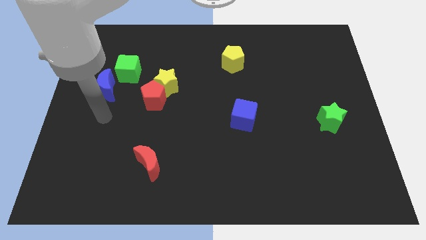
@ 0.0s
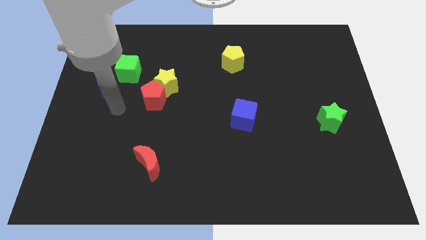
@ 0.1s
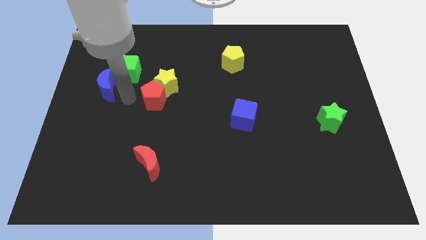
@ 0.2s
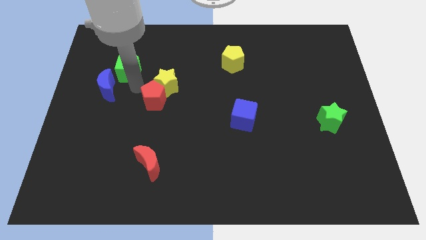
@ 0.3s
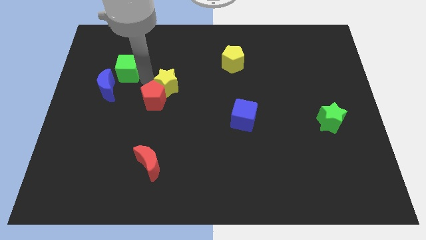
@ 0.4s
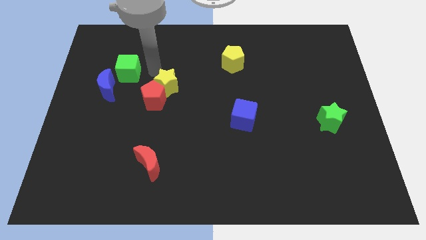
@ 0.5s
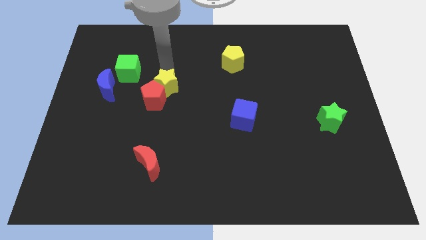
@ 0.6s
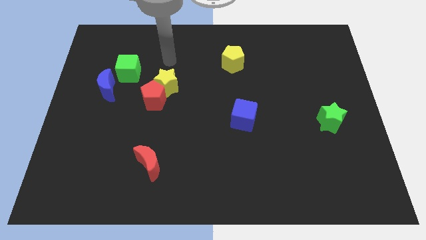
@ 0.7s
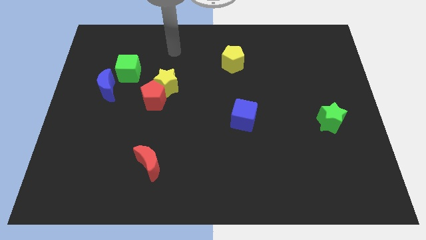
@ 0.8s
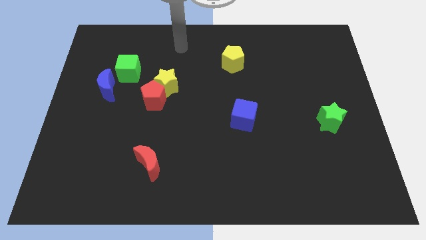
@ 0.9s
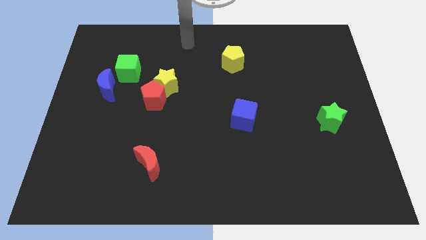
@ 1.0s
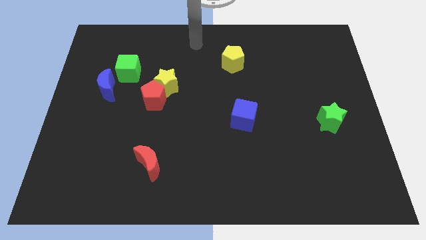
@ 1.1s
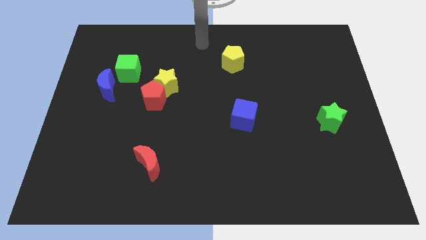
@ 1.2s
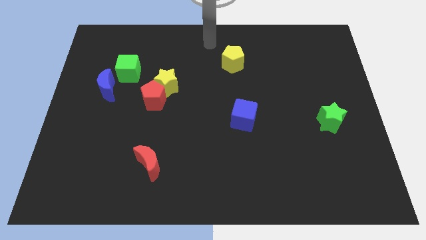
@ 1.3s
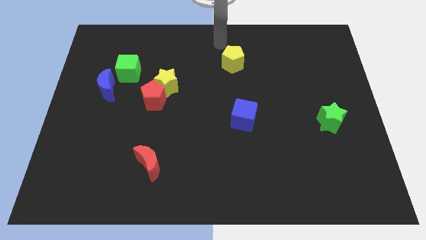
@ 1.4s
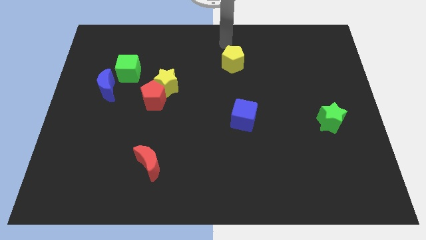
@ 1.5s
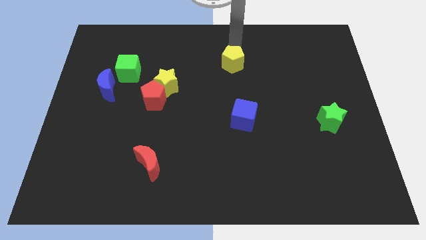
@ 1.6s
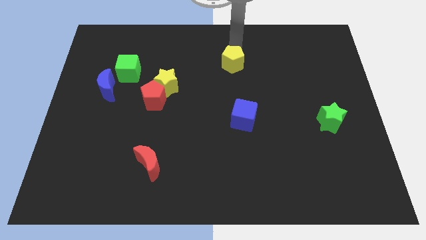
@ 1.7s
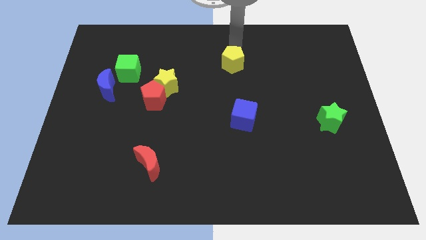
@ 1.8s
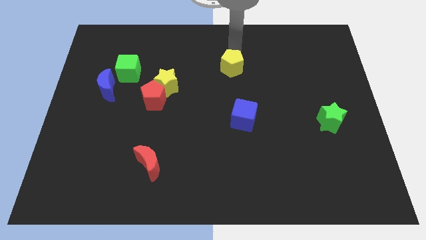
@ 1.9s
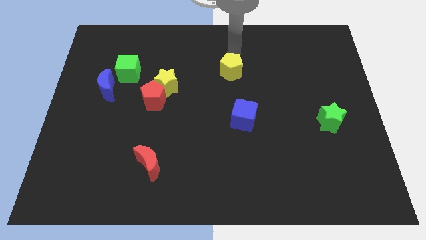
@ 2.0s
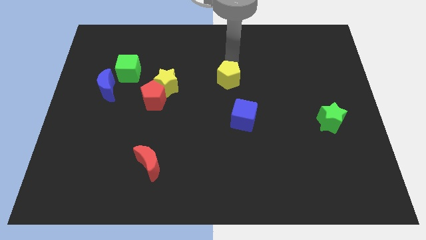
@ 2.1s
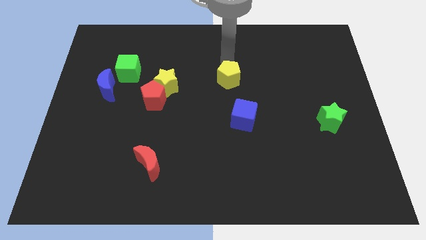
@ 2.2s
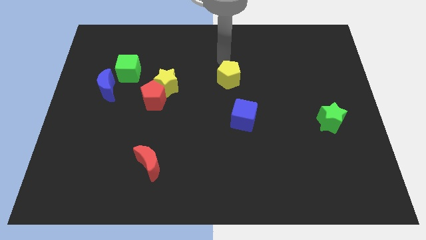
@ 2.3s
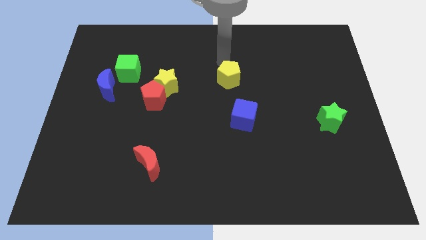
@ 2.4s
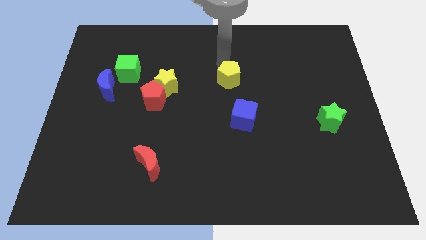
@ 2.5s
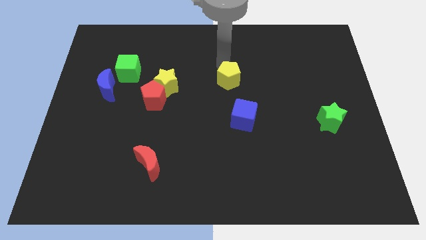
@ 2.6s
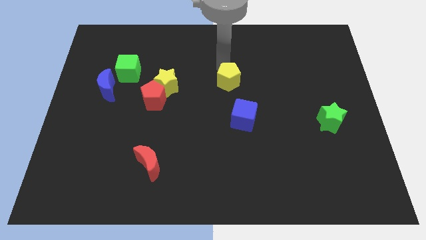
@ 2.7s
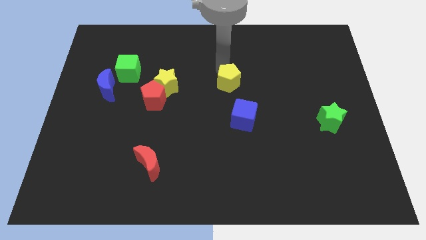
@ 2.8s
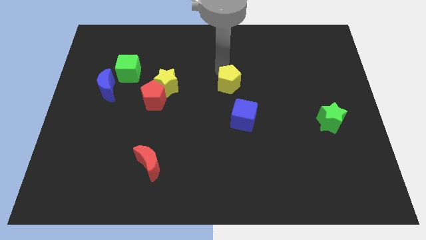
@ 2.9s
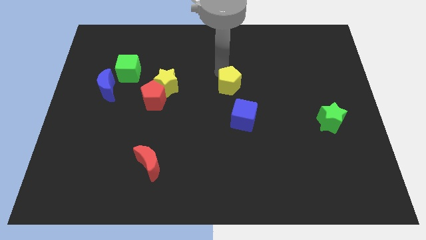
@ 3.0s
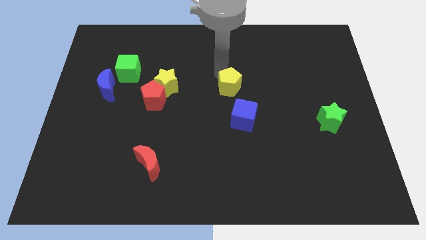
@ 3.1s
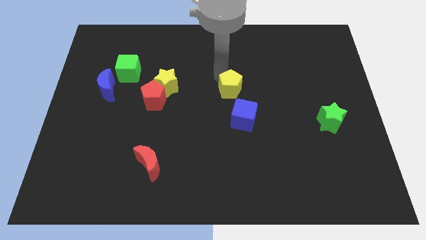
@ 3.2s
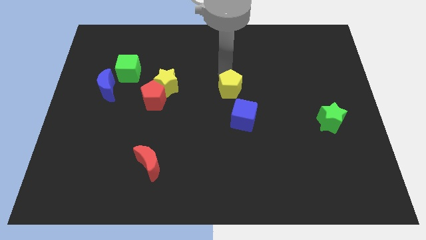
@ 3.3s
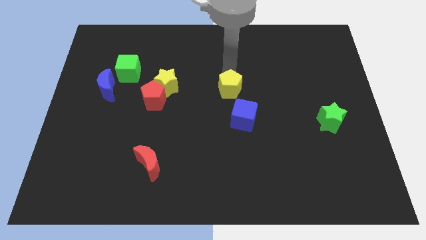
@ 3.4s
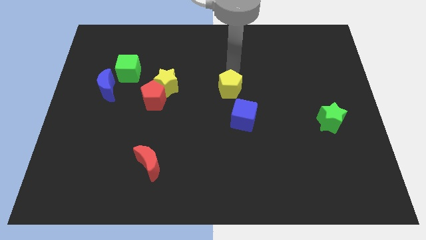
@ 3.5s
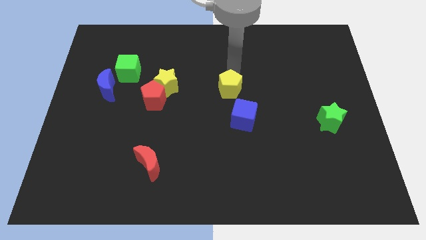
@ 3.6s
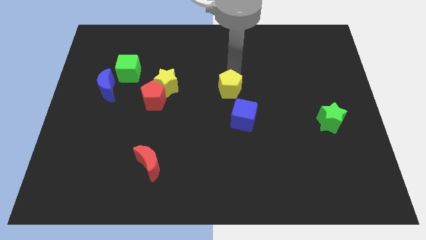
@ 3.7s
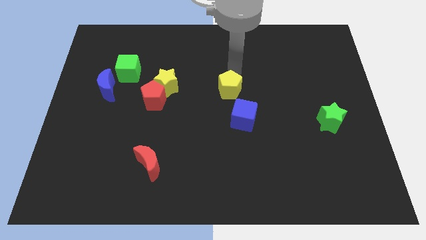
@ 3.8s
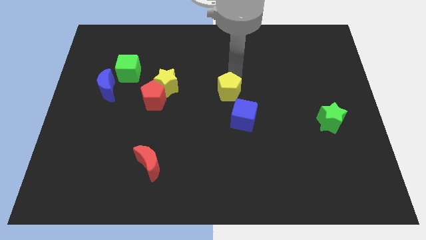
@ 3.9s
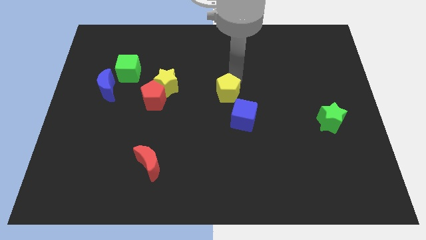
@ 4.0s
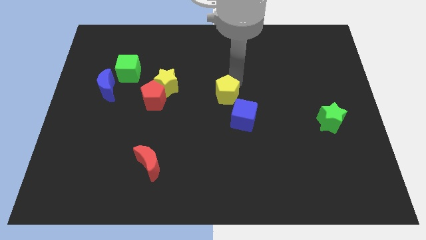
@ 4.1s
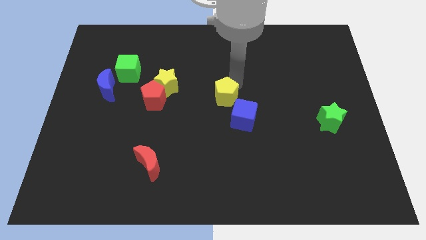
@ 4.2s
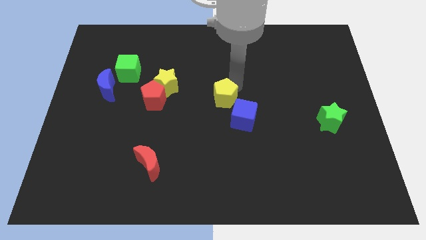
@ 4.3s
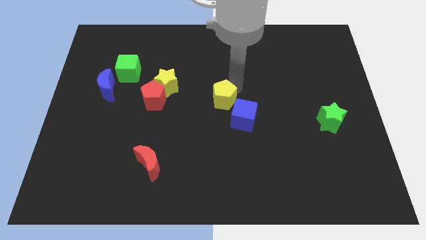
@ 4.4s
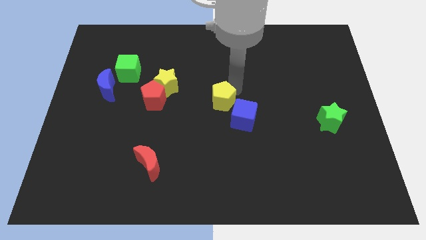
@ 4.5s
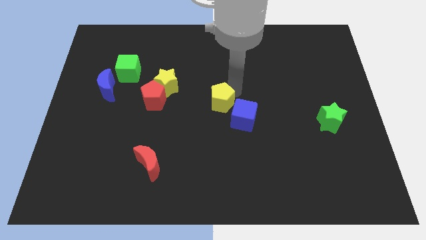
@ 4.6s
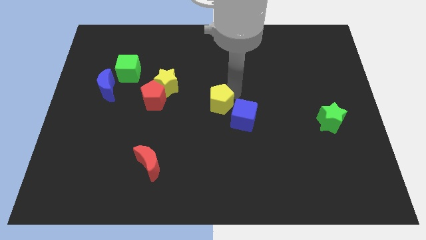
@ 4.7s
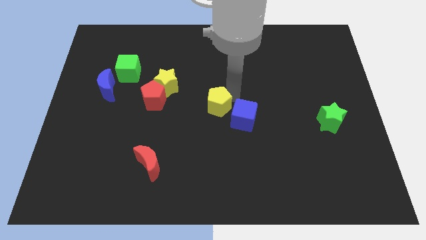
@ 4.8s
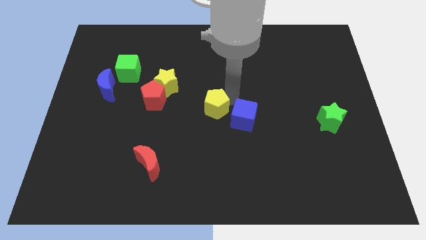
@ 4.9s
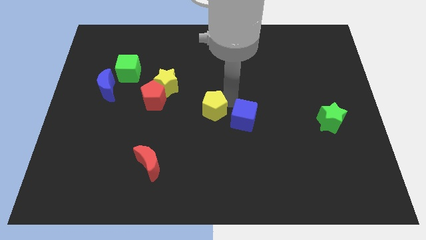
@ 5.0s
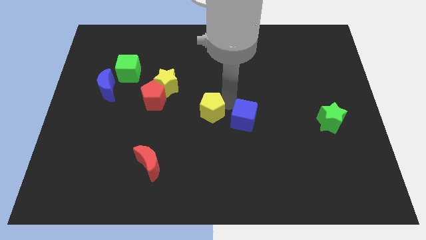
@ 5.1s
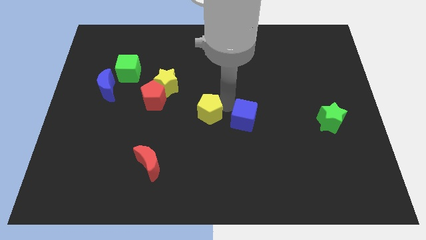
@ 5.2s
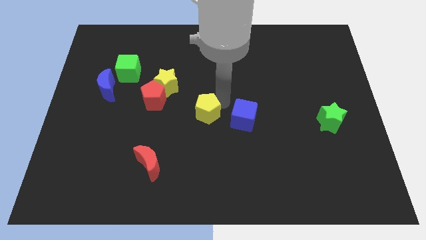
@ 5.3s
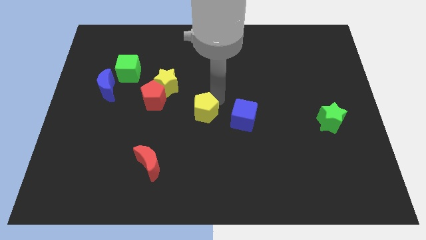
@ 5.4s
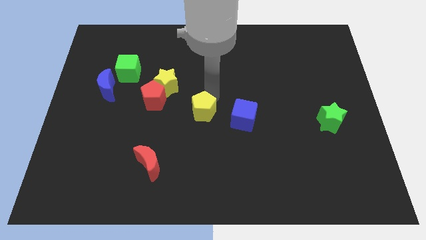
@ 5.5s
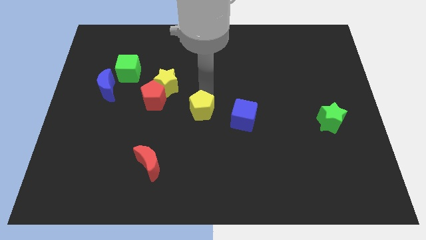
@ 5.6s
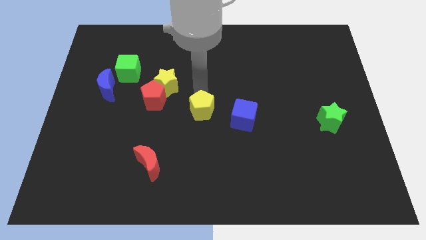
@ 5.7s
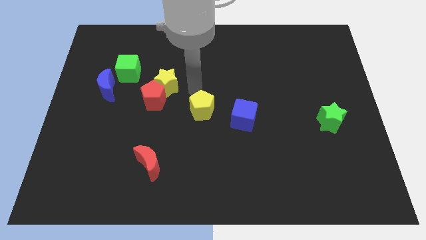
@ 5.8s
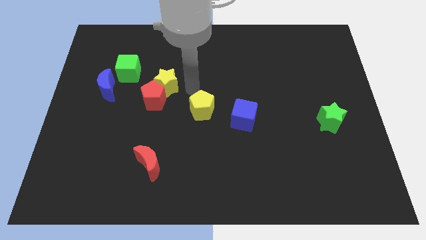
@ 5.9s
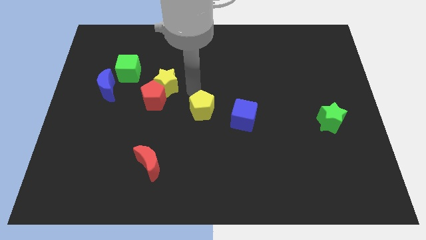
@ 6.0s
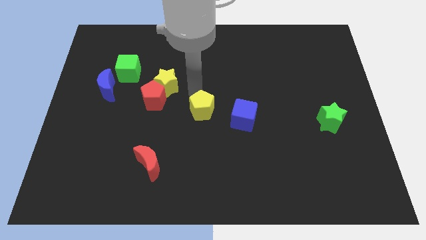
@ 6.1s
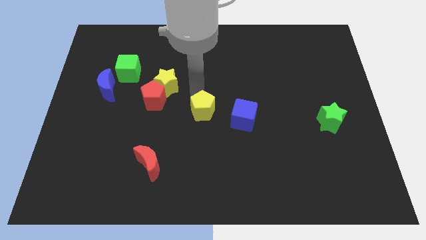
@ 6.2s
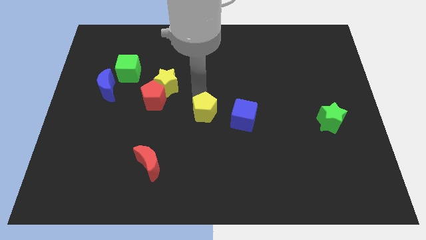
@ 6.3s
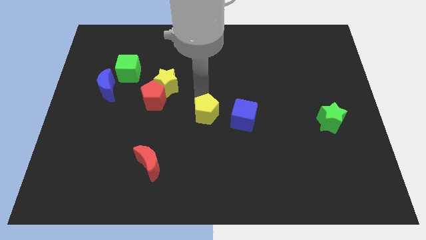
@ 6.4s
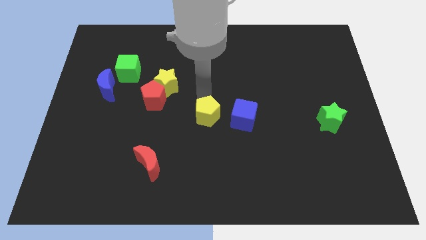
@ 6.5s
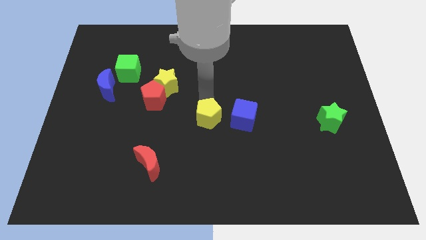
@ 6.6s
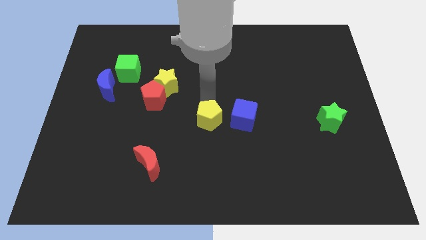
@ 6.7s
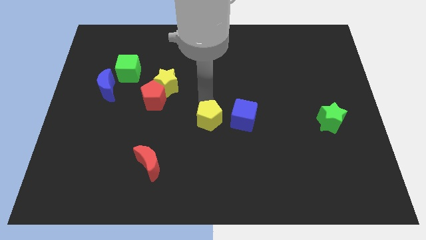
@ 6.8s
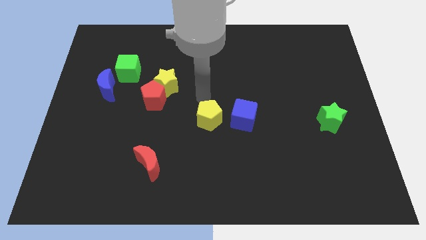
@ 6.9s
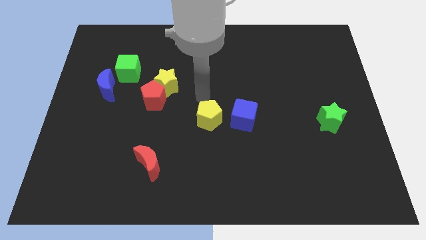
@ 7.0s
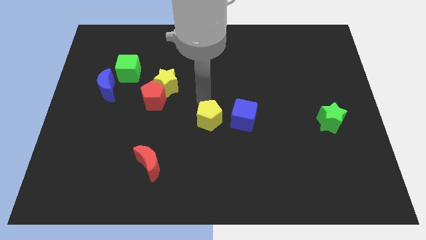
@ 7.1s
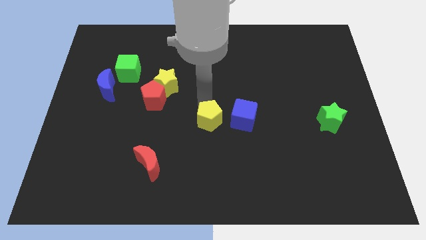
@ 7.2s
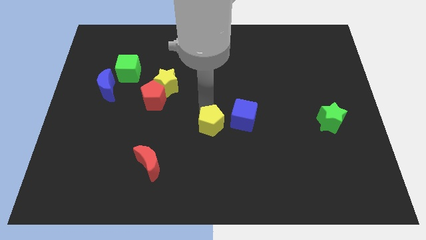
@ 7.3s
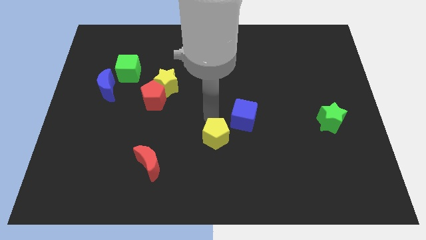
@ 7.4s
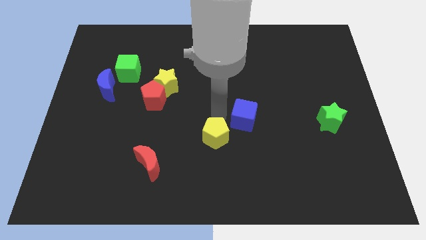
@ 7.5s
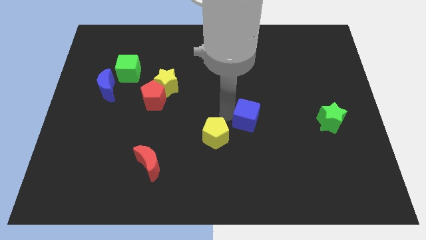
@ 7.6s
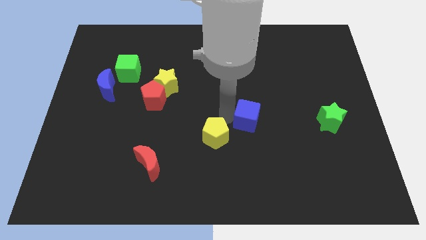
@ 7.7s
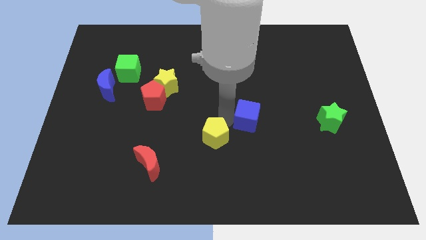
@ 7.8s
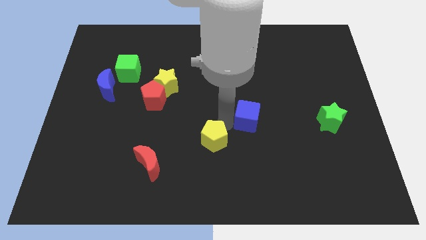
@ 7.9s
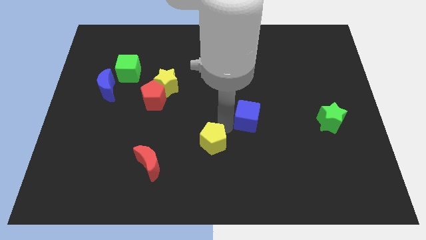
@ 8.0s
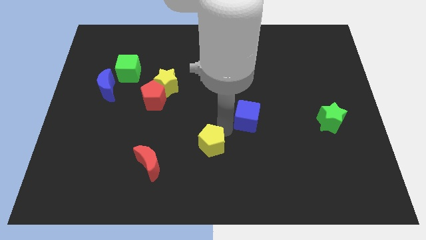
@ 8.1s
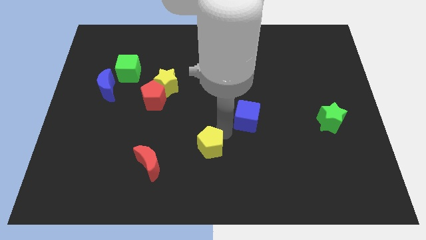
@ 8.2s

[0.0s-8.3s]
move the yellow pentagon just right of the red moon
